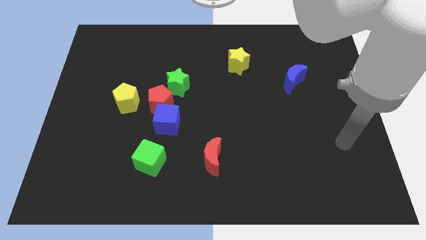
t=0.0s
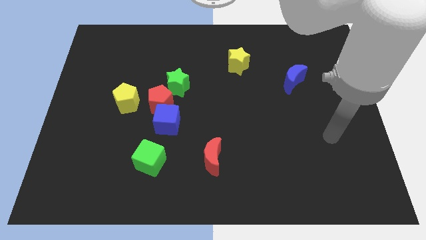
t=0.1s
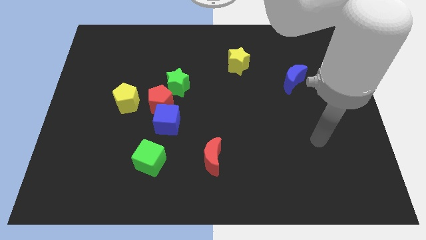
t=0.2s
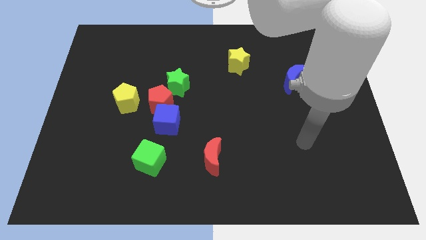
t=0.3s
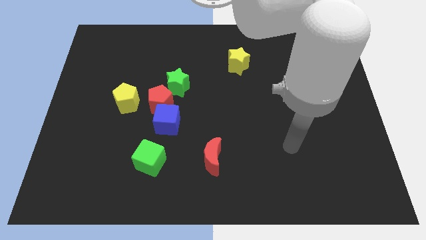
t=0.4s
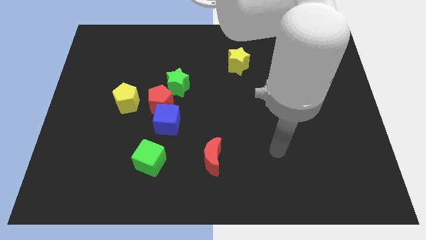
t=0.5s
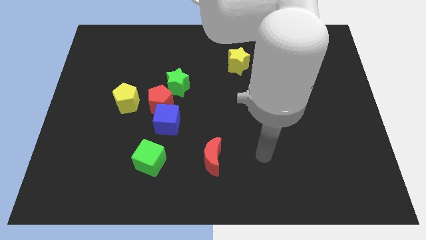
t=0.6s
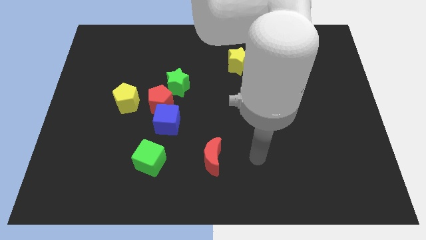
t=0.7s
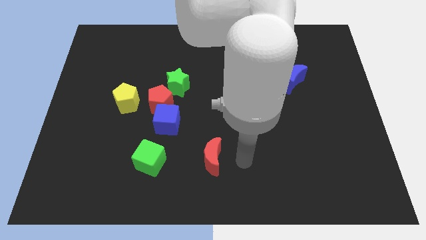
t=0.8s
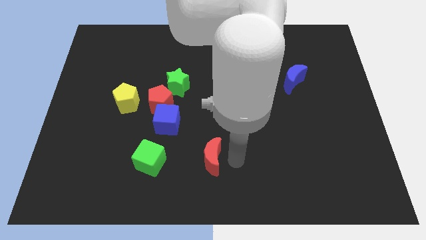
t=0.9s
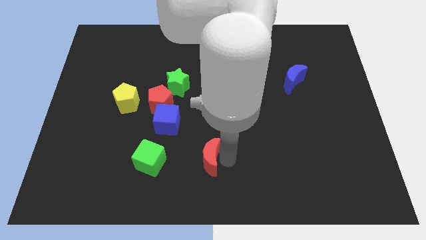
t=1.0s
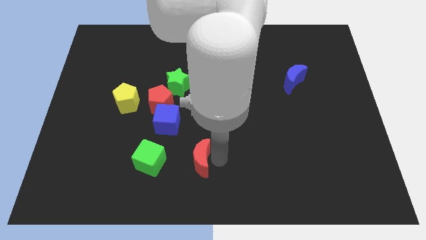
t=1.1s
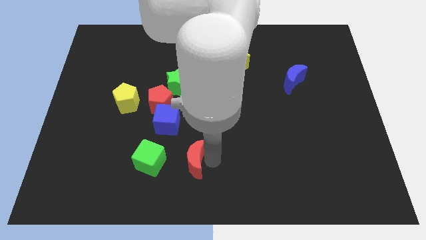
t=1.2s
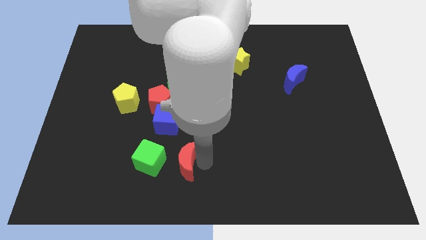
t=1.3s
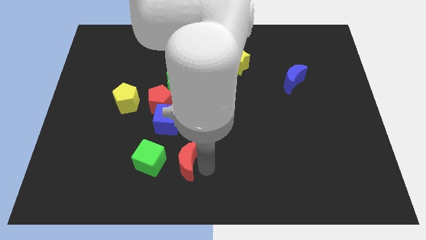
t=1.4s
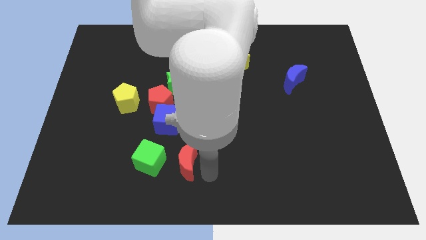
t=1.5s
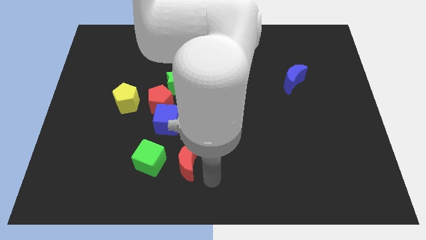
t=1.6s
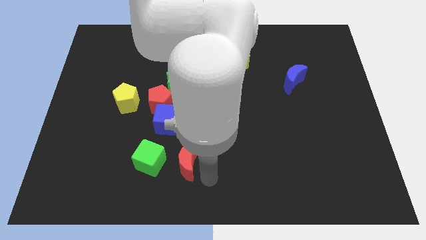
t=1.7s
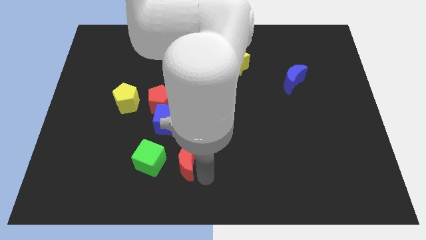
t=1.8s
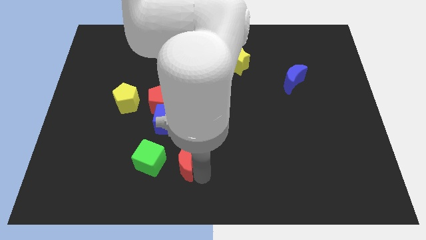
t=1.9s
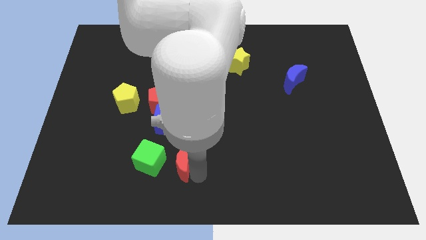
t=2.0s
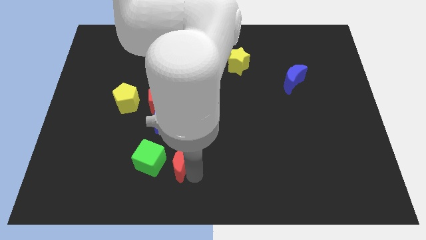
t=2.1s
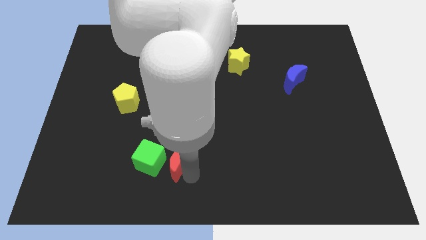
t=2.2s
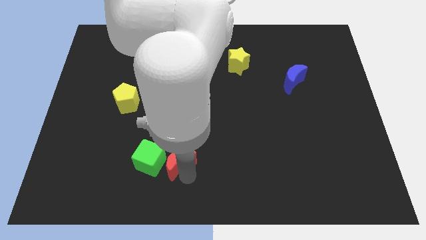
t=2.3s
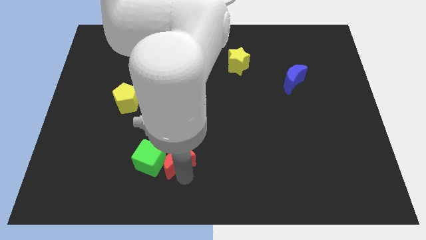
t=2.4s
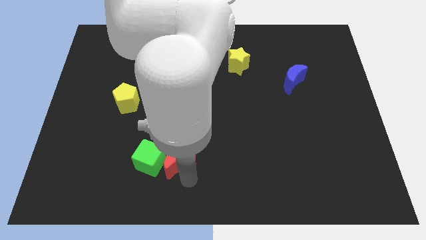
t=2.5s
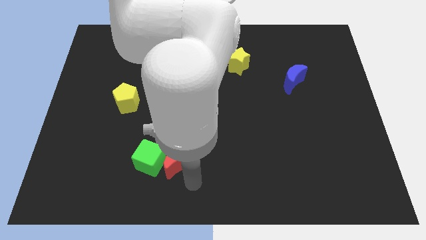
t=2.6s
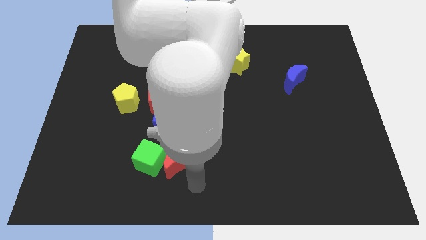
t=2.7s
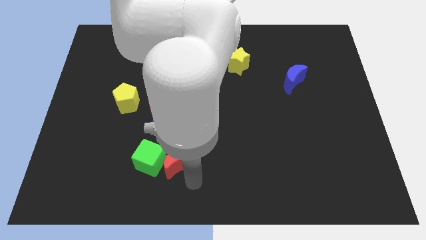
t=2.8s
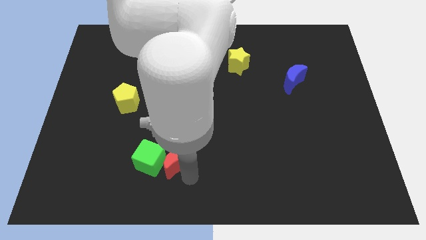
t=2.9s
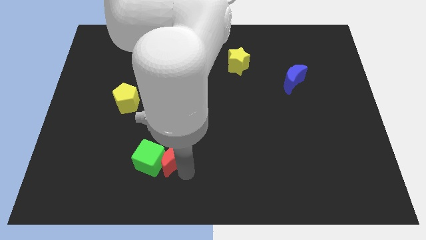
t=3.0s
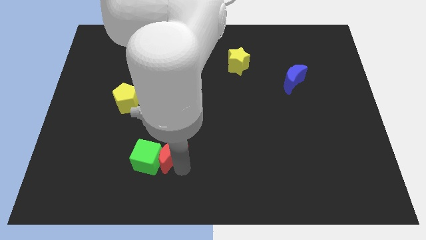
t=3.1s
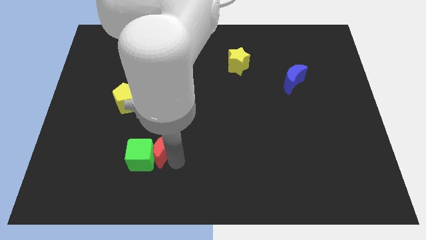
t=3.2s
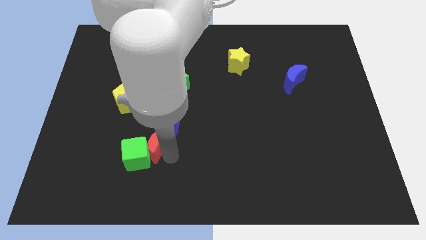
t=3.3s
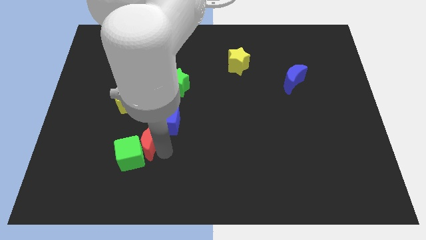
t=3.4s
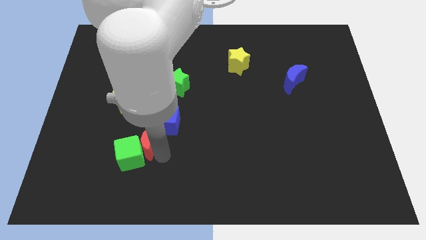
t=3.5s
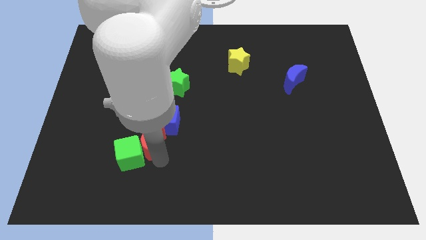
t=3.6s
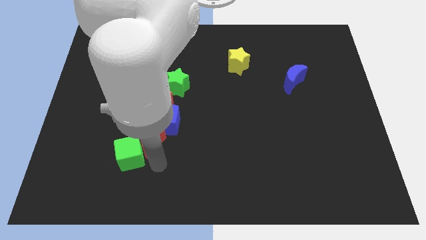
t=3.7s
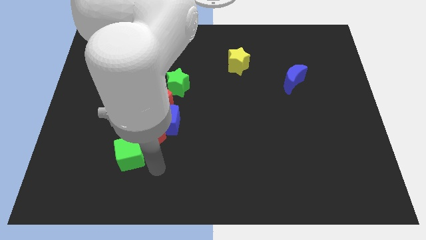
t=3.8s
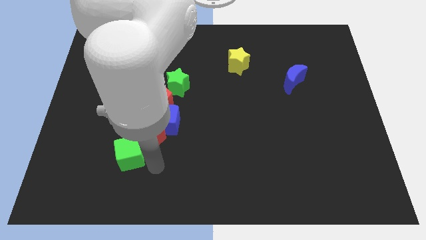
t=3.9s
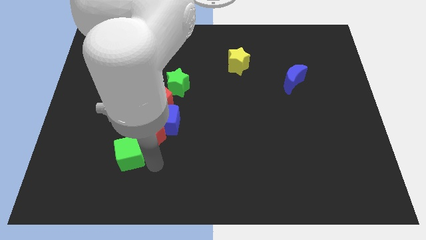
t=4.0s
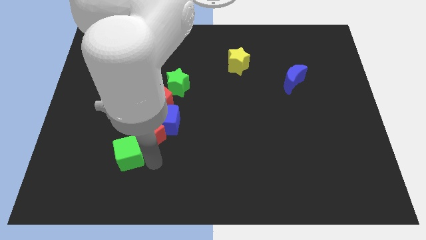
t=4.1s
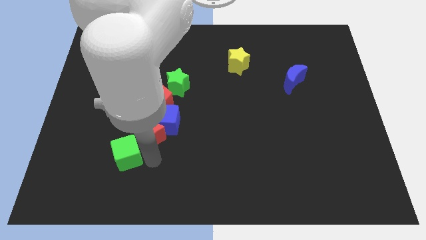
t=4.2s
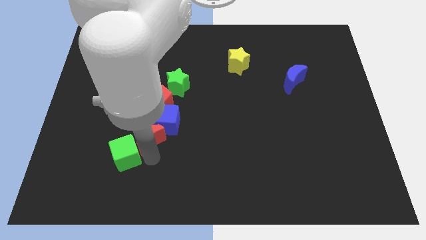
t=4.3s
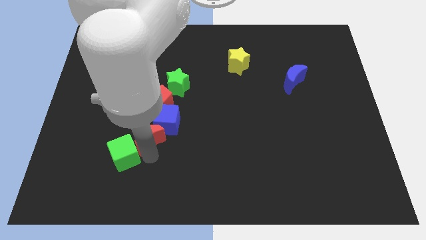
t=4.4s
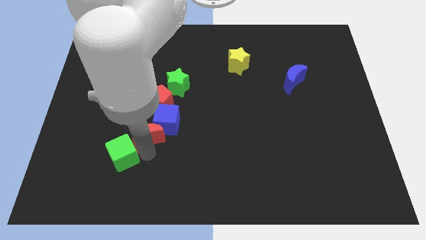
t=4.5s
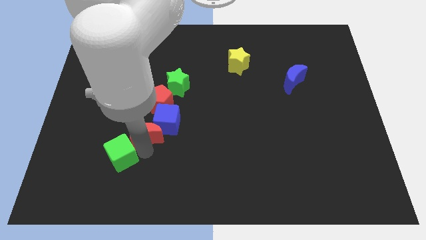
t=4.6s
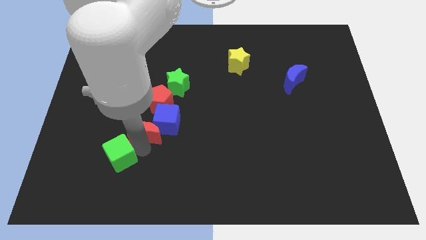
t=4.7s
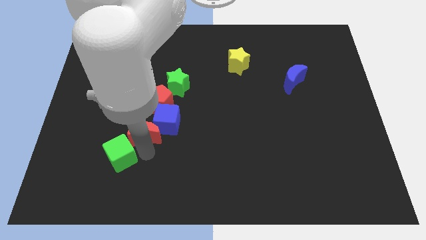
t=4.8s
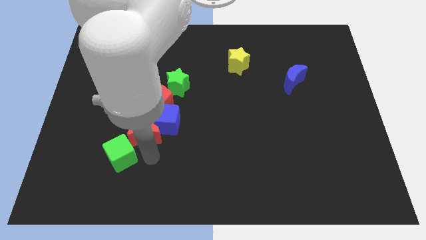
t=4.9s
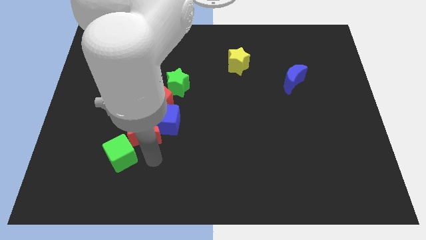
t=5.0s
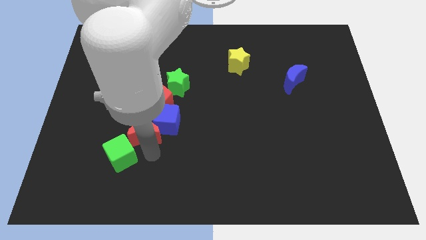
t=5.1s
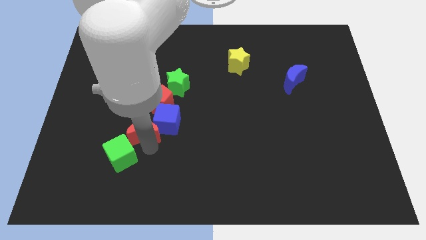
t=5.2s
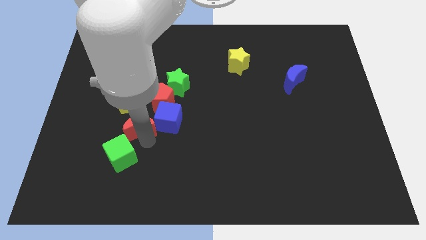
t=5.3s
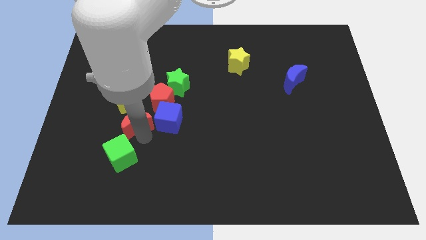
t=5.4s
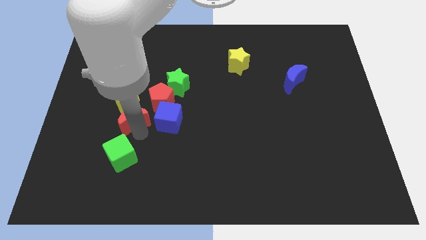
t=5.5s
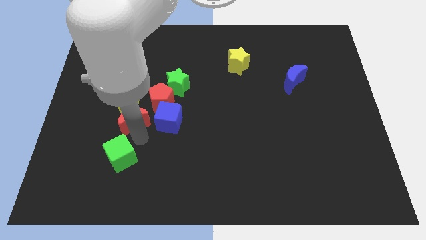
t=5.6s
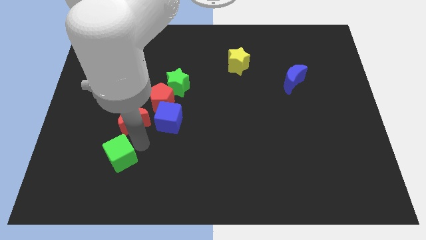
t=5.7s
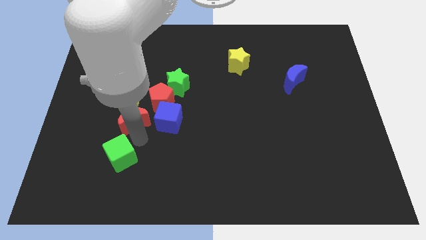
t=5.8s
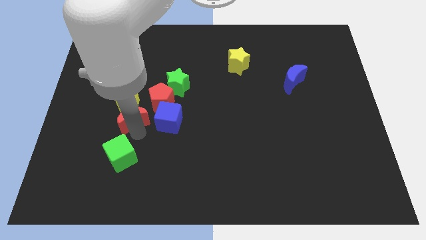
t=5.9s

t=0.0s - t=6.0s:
slide the red moon next to the yellow pentagon

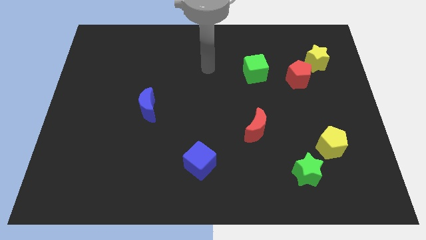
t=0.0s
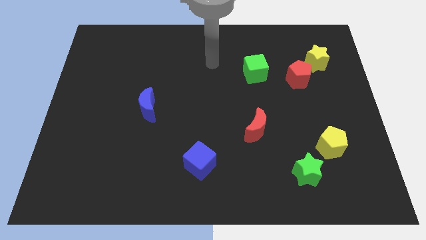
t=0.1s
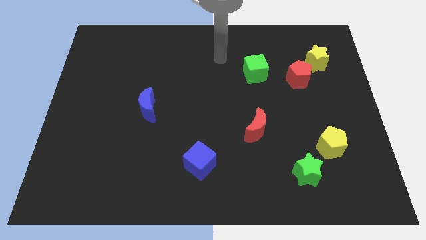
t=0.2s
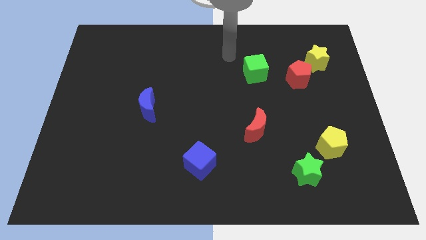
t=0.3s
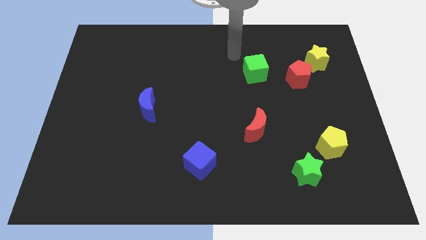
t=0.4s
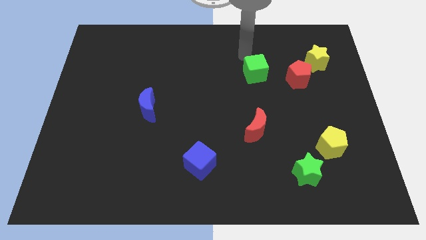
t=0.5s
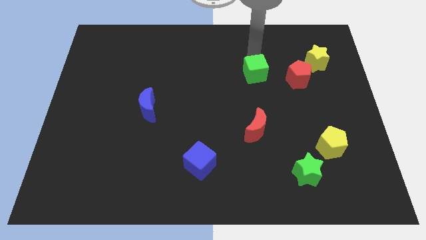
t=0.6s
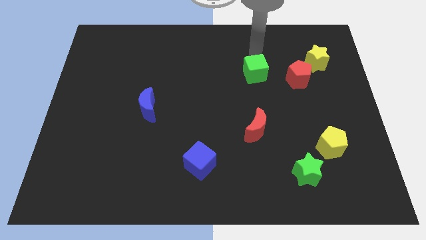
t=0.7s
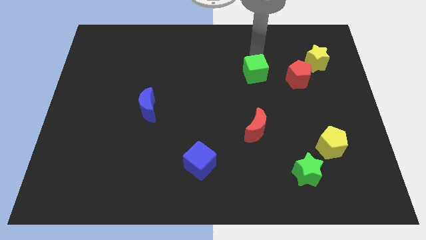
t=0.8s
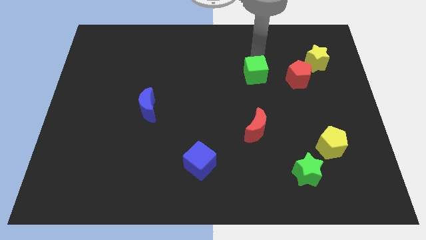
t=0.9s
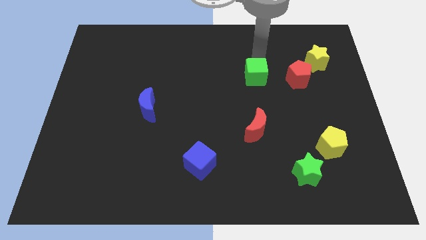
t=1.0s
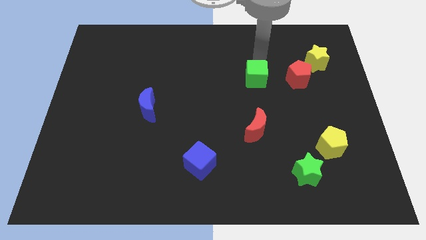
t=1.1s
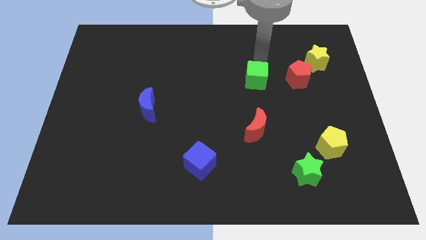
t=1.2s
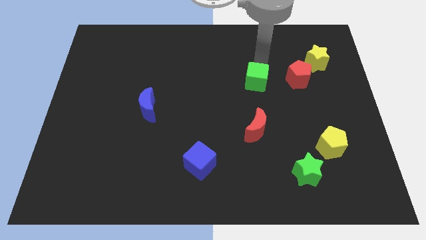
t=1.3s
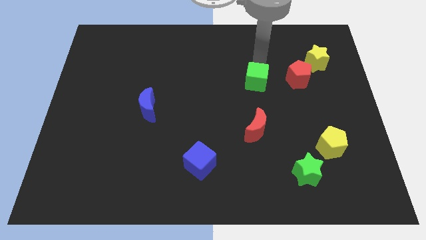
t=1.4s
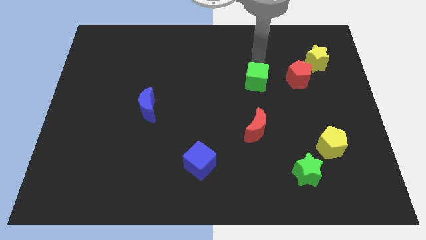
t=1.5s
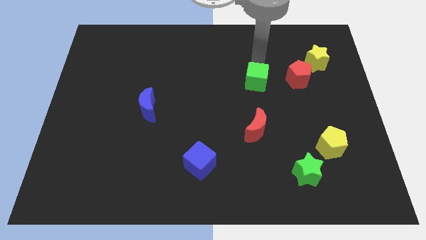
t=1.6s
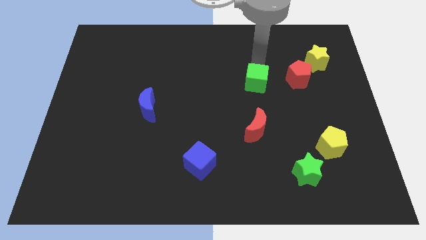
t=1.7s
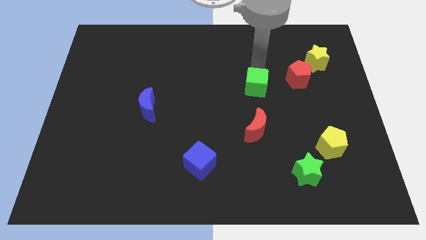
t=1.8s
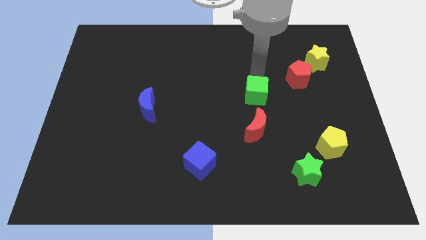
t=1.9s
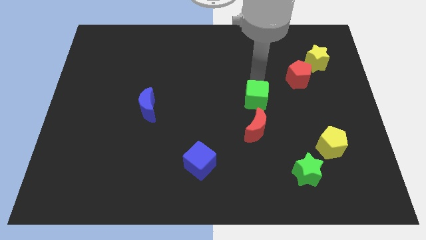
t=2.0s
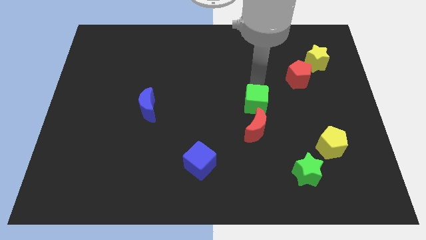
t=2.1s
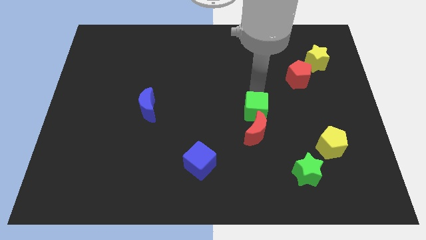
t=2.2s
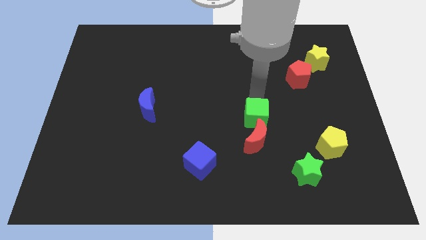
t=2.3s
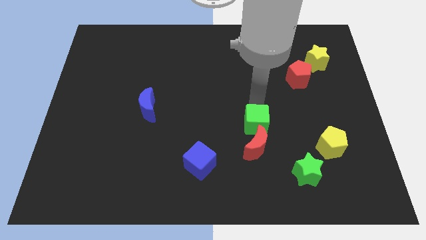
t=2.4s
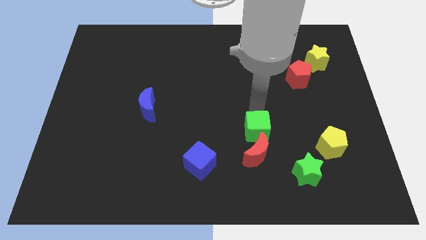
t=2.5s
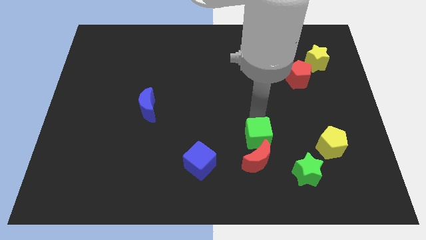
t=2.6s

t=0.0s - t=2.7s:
move the green cube close to the red moon
